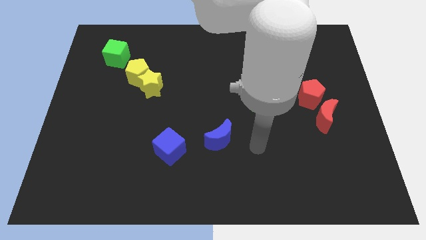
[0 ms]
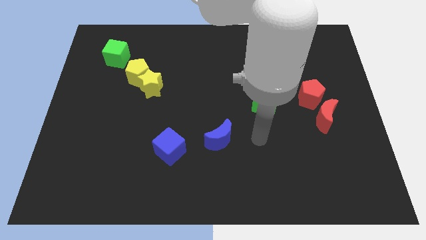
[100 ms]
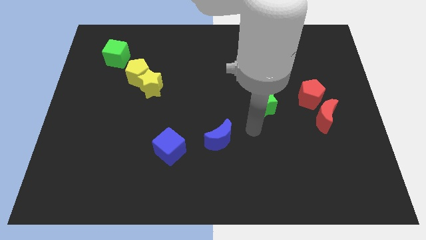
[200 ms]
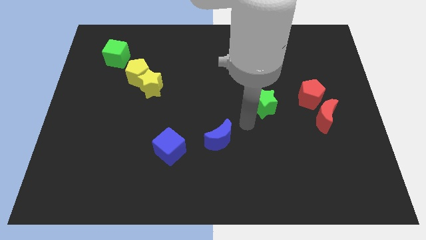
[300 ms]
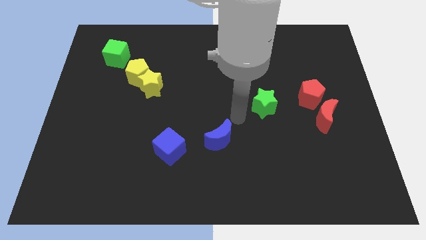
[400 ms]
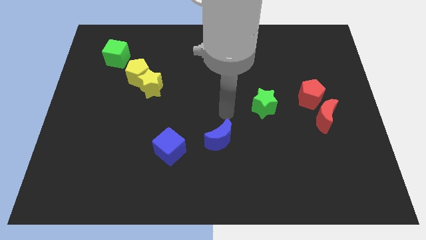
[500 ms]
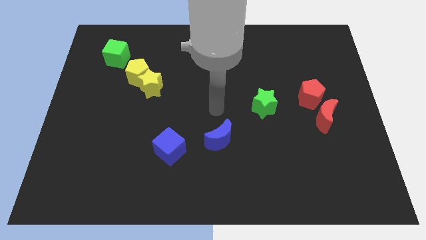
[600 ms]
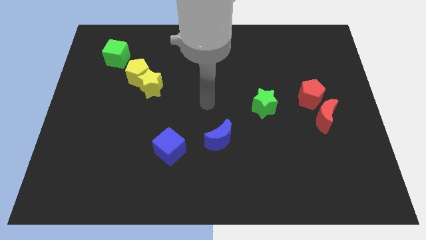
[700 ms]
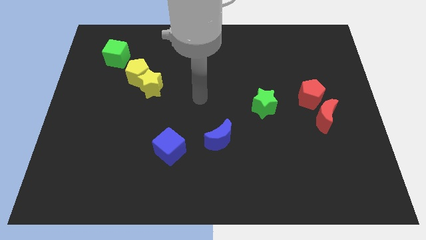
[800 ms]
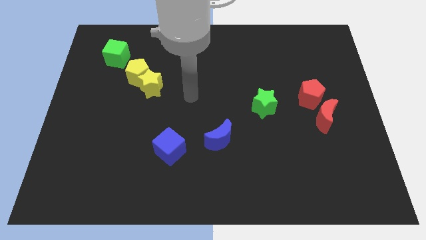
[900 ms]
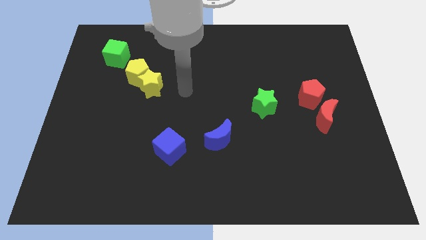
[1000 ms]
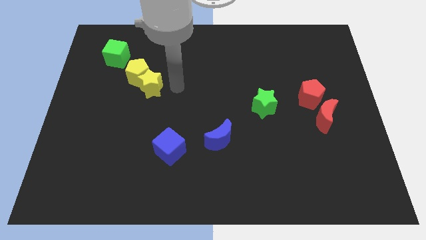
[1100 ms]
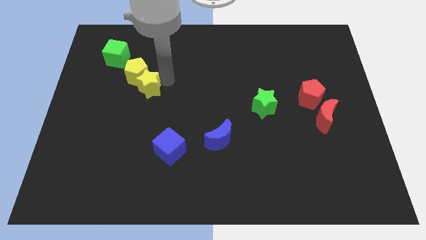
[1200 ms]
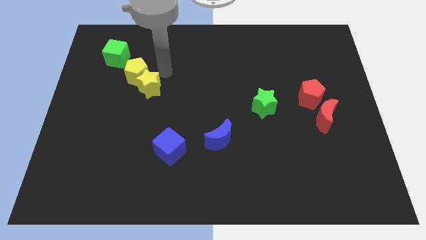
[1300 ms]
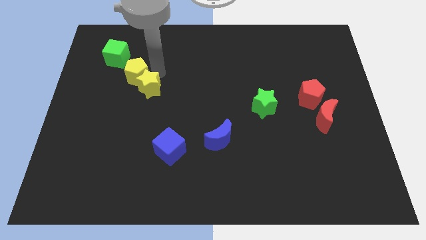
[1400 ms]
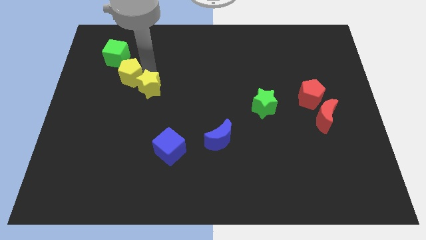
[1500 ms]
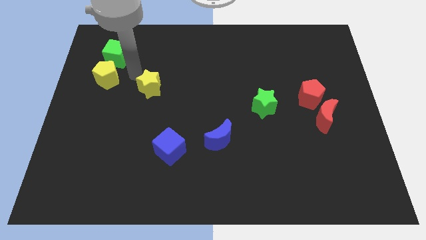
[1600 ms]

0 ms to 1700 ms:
pull the yellow star apart from the yellow pentagon

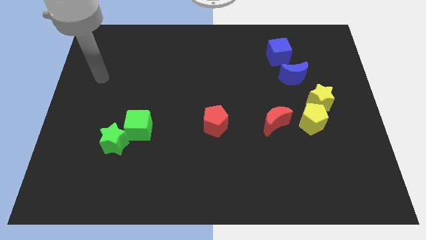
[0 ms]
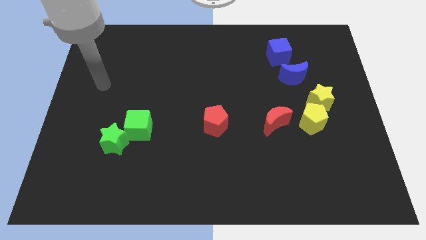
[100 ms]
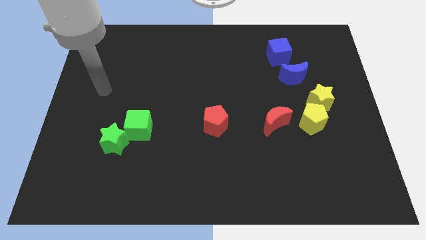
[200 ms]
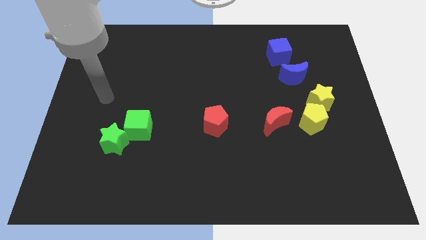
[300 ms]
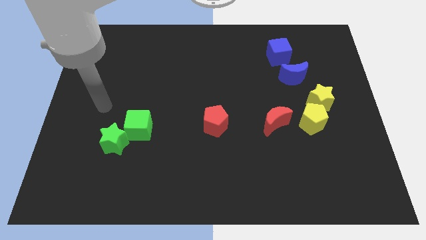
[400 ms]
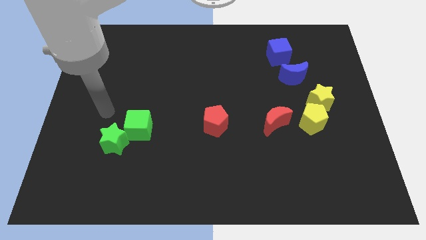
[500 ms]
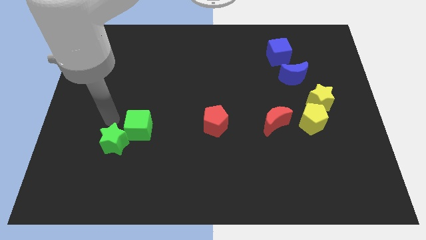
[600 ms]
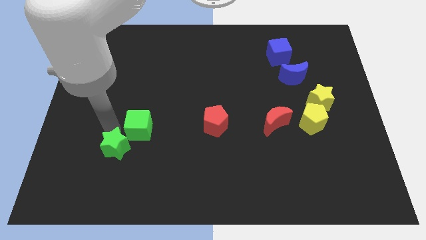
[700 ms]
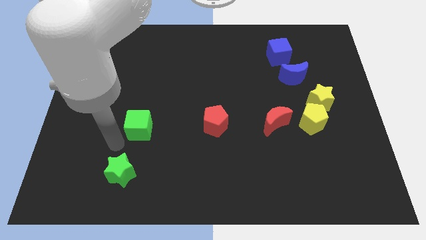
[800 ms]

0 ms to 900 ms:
pull the green cube apart from the green star

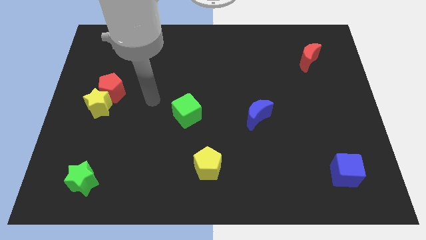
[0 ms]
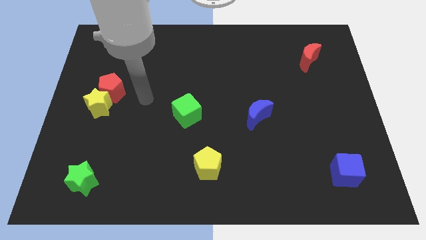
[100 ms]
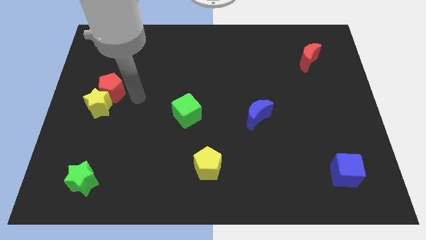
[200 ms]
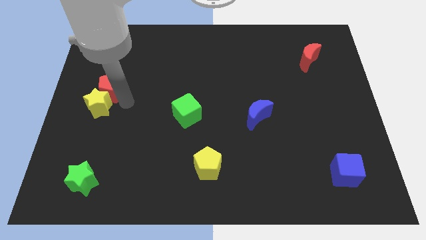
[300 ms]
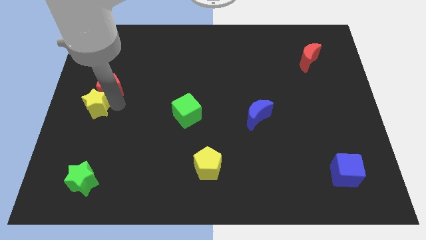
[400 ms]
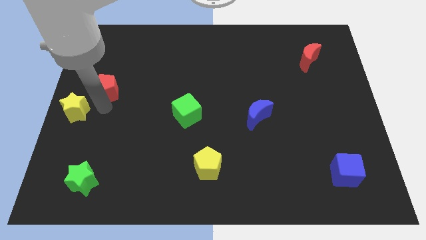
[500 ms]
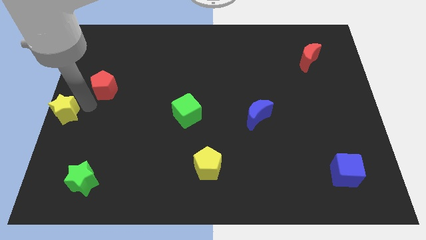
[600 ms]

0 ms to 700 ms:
move the red pentagon away from the yellow star

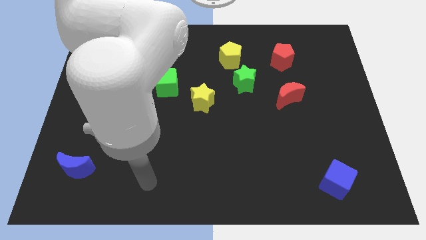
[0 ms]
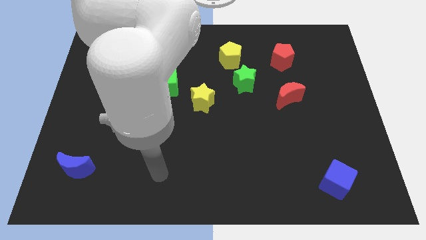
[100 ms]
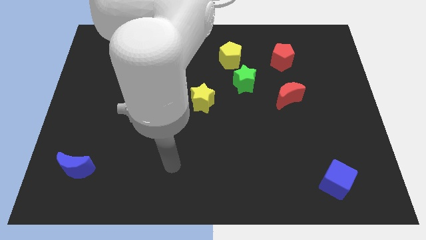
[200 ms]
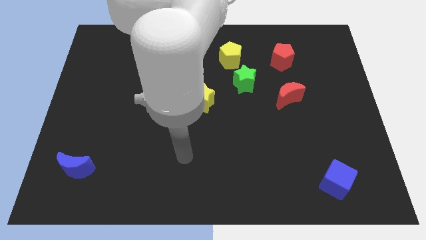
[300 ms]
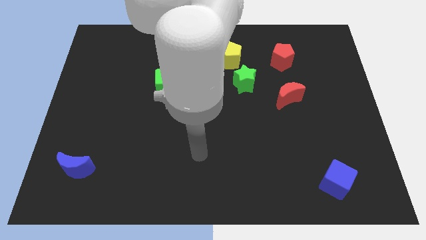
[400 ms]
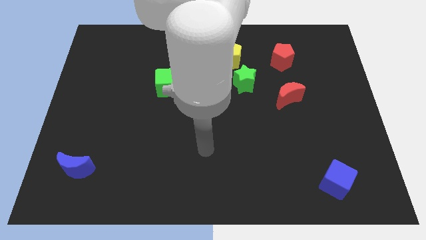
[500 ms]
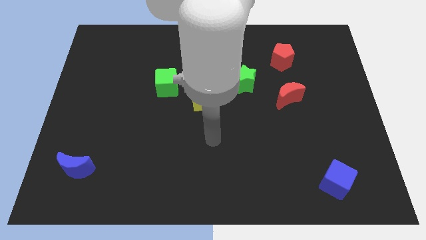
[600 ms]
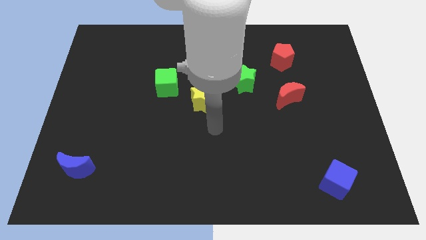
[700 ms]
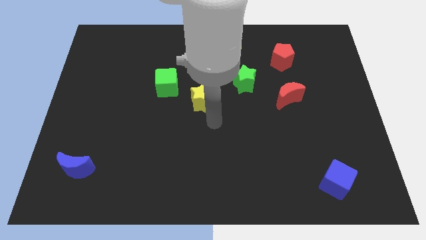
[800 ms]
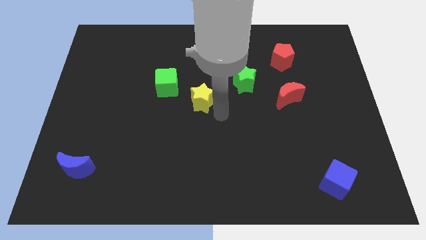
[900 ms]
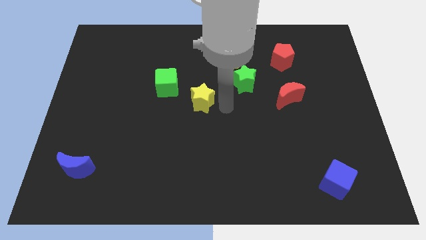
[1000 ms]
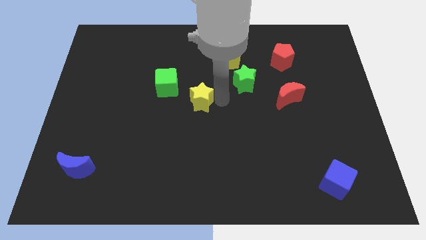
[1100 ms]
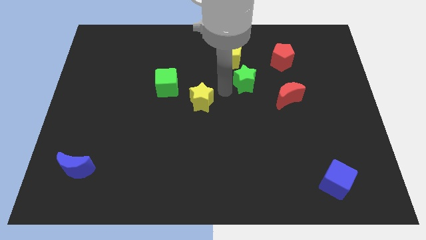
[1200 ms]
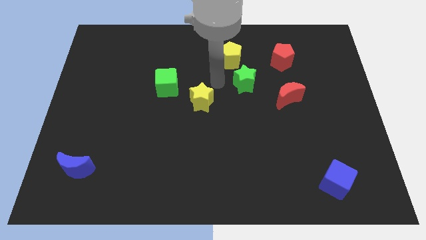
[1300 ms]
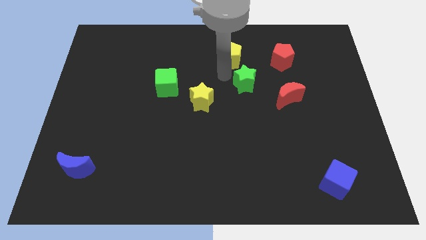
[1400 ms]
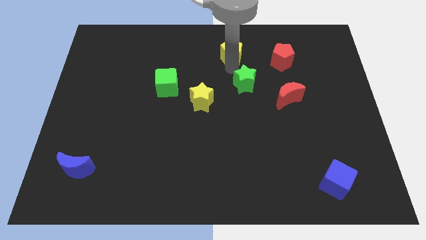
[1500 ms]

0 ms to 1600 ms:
separate the green star from the yellow pentagon

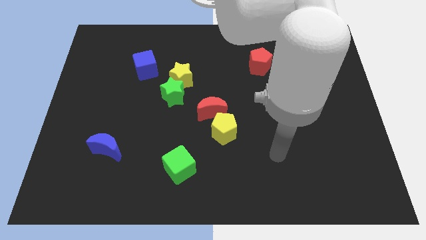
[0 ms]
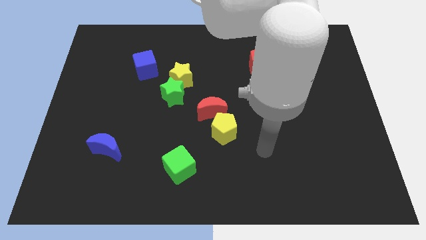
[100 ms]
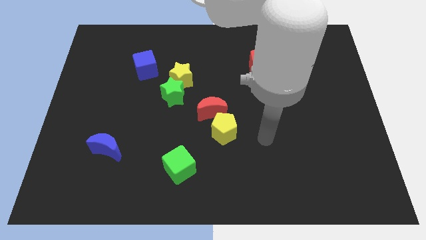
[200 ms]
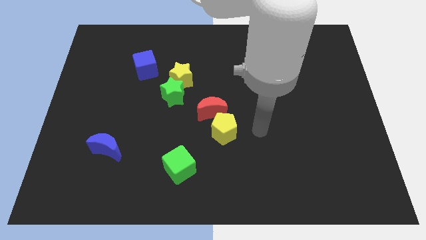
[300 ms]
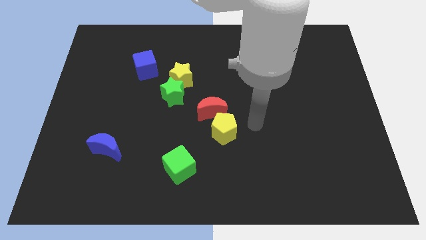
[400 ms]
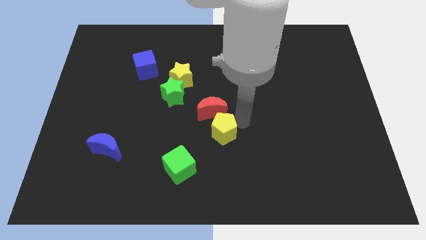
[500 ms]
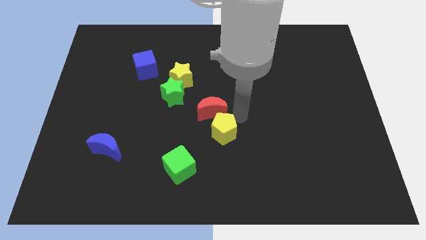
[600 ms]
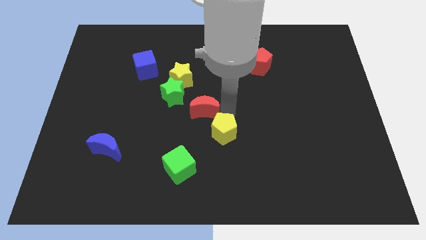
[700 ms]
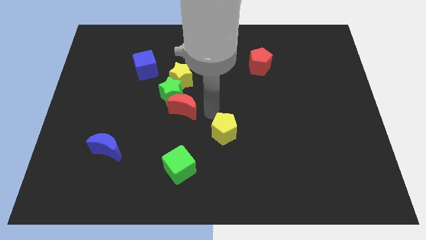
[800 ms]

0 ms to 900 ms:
move the yellow pentagon away from the red moon

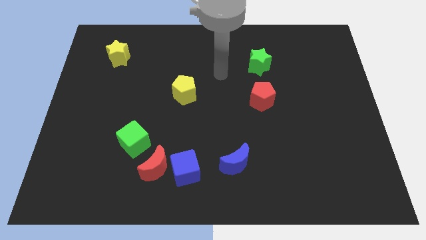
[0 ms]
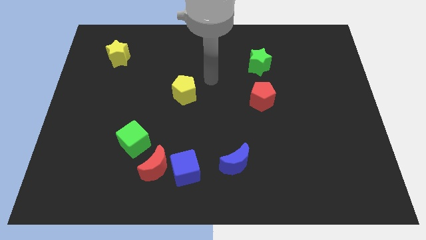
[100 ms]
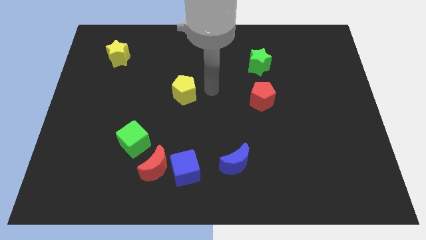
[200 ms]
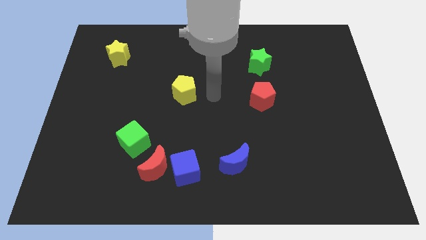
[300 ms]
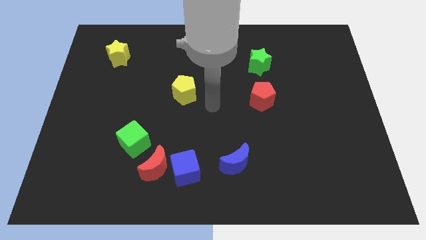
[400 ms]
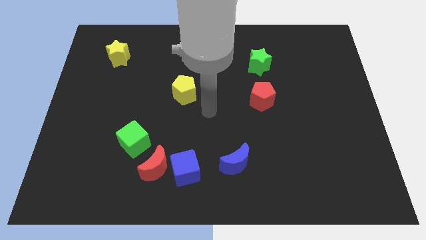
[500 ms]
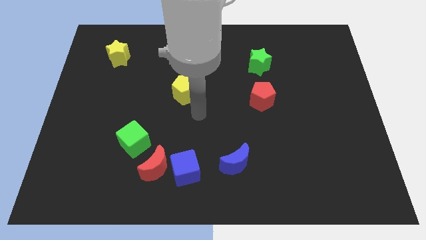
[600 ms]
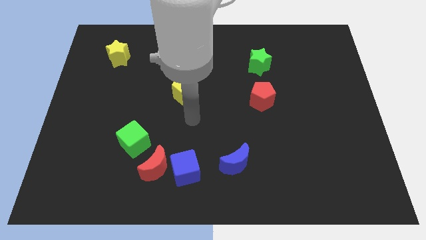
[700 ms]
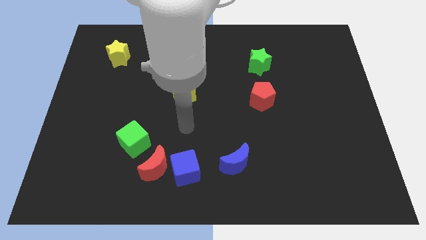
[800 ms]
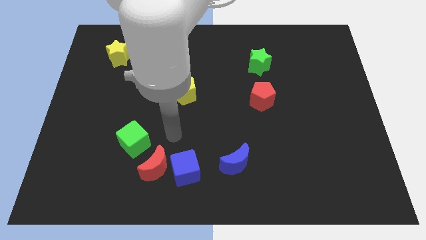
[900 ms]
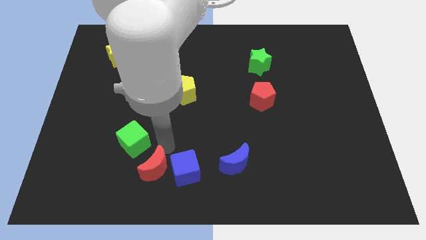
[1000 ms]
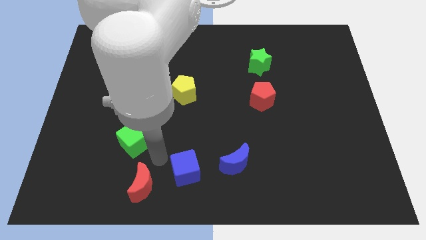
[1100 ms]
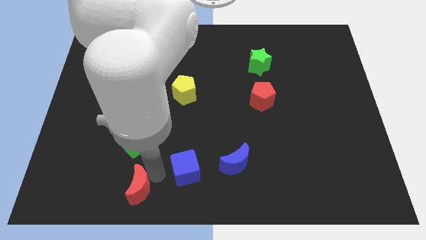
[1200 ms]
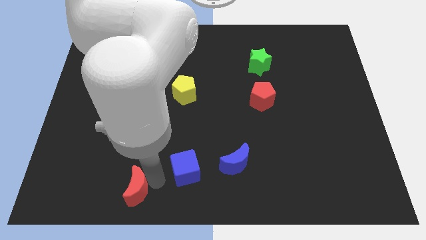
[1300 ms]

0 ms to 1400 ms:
move the blue cube away from the red moon

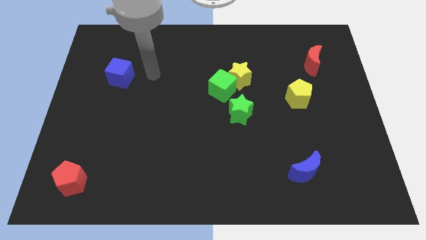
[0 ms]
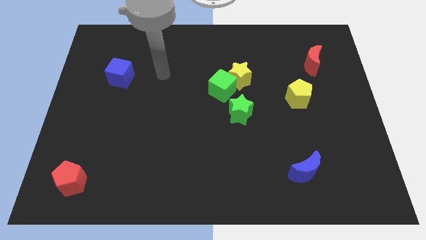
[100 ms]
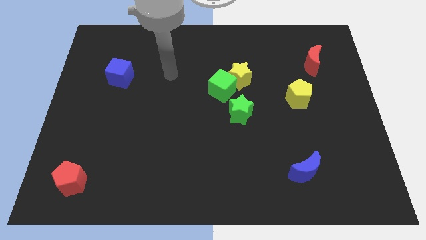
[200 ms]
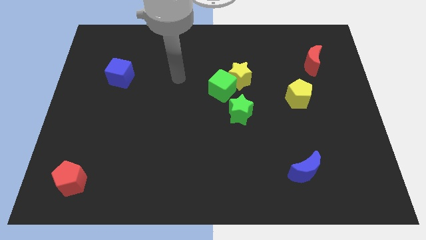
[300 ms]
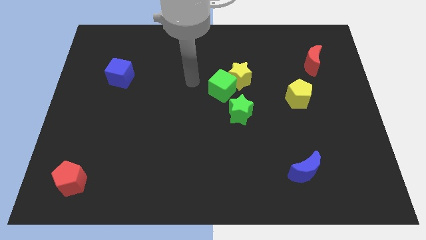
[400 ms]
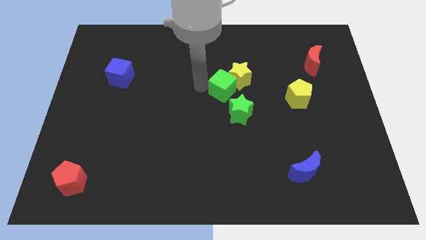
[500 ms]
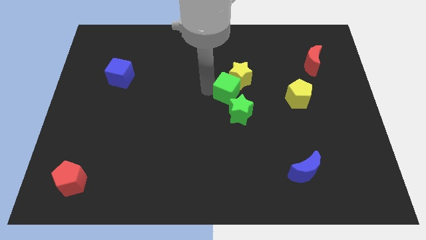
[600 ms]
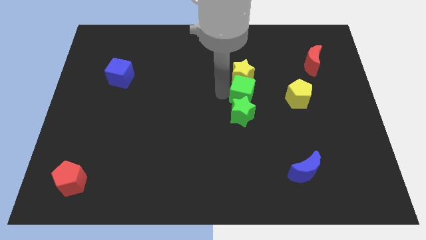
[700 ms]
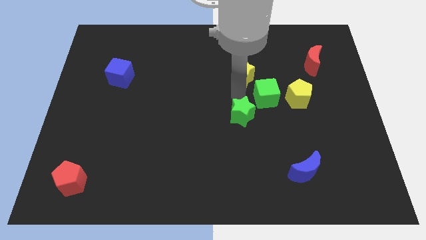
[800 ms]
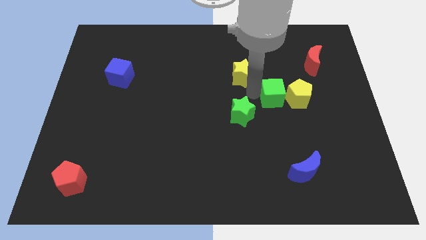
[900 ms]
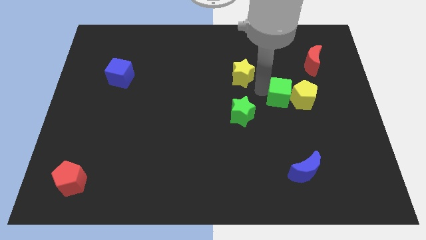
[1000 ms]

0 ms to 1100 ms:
separate the yellow star from the green cube

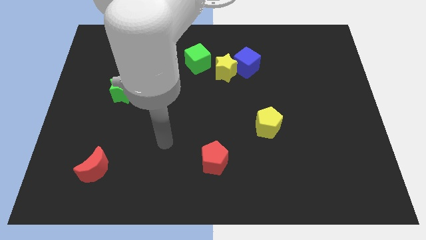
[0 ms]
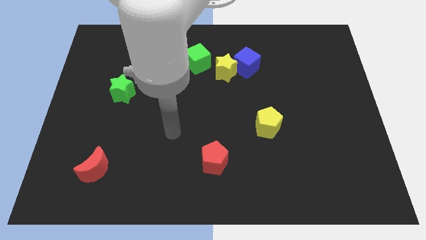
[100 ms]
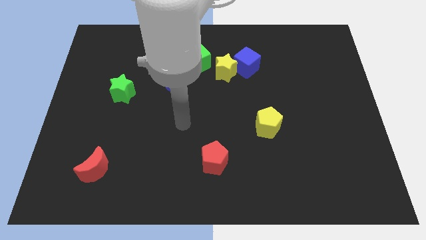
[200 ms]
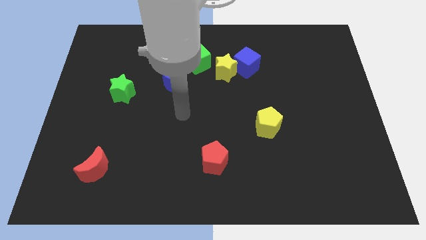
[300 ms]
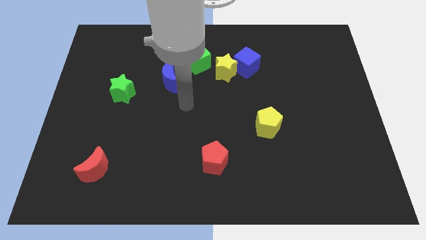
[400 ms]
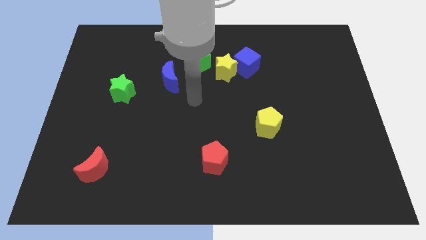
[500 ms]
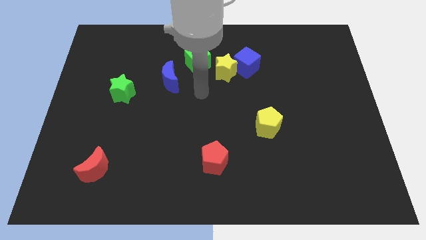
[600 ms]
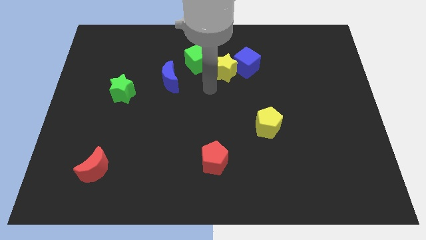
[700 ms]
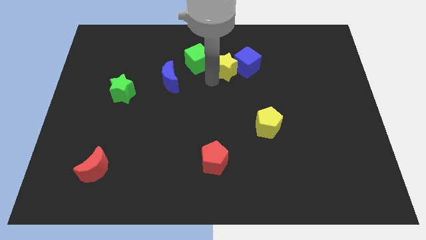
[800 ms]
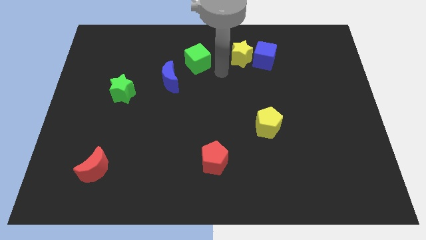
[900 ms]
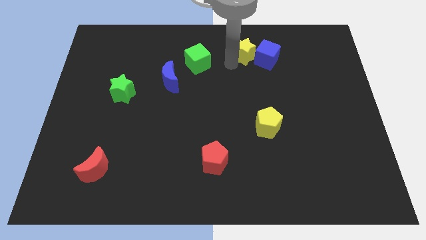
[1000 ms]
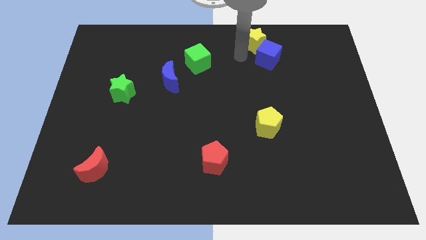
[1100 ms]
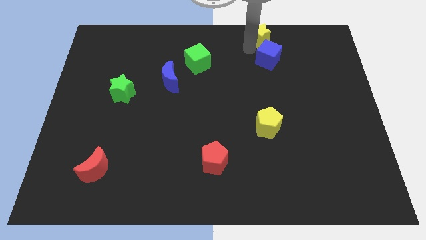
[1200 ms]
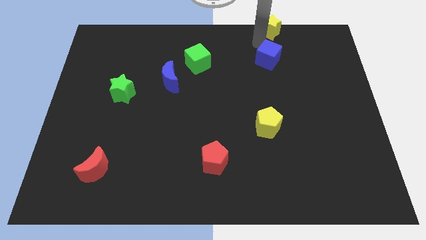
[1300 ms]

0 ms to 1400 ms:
move the blue cube away from the yellow star
